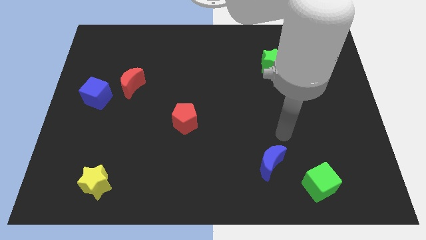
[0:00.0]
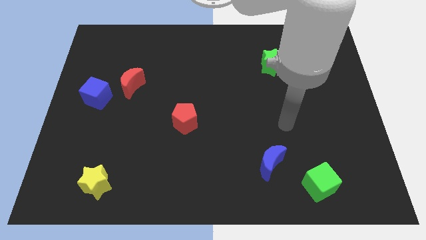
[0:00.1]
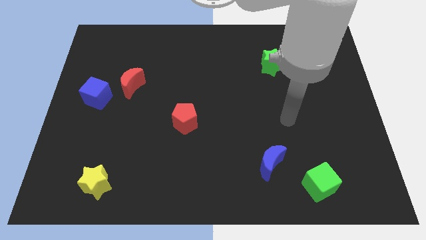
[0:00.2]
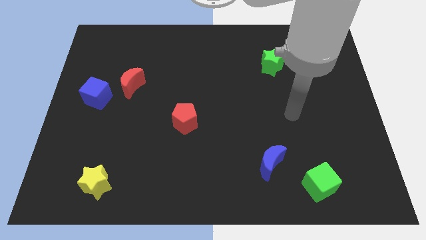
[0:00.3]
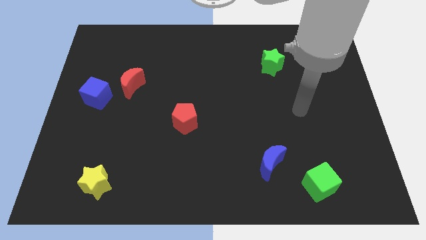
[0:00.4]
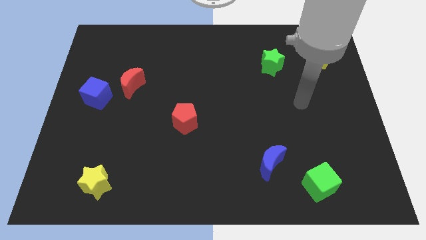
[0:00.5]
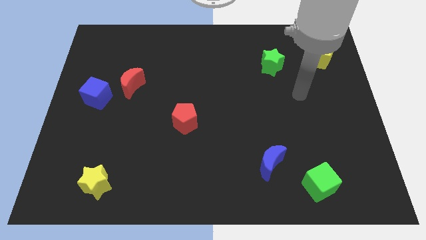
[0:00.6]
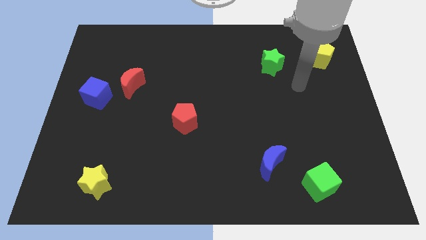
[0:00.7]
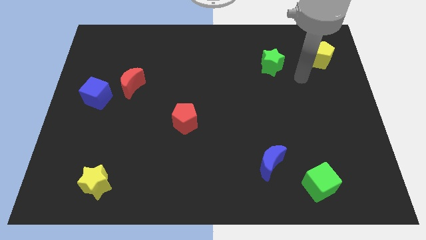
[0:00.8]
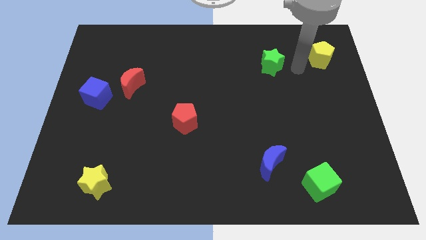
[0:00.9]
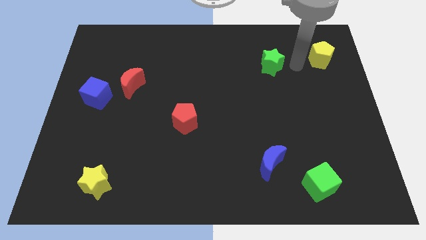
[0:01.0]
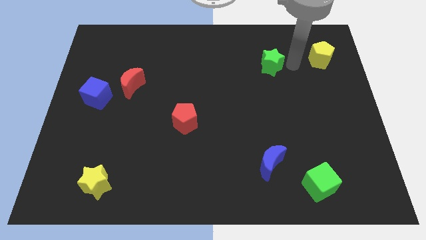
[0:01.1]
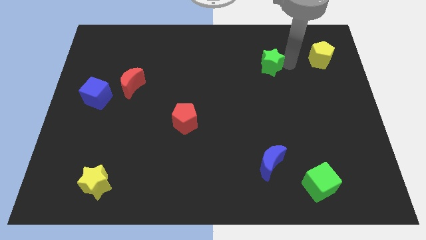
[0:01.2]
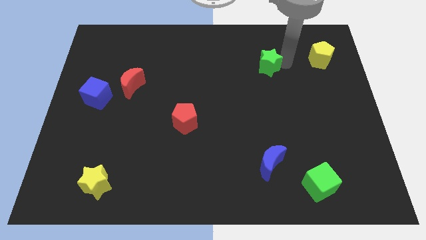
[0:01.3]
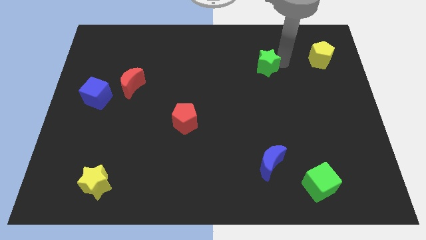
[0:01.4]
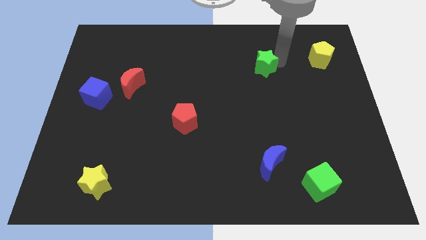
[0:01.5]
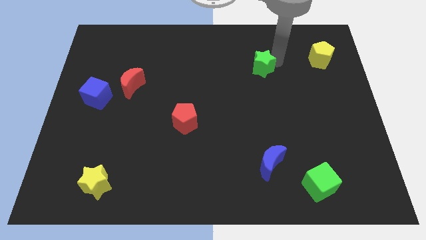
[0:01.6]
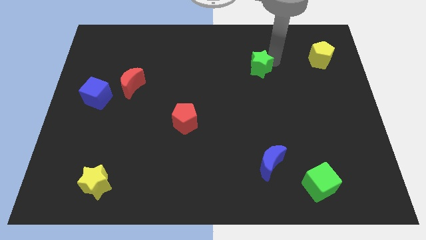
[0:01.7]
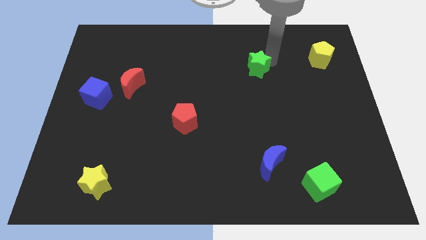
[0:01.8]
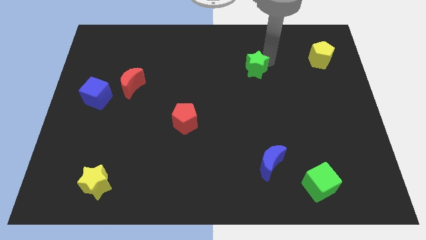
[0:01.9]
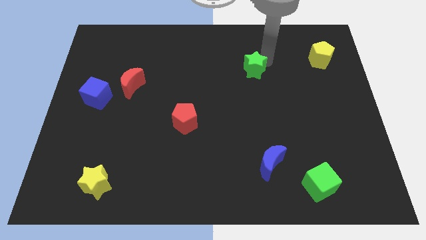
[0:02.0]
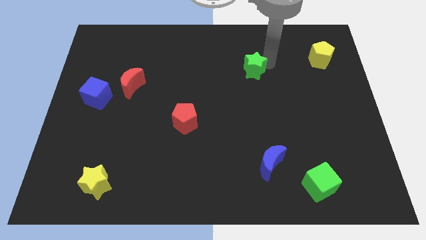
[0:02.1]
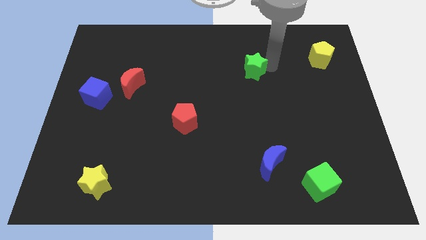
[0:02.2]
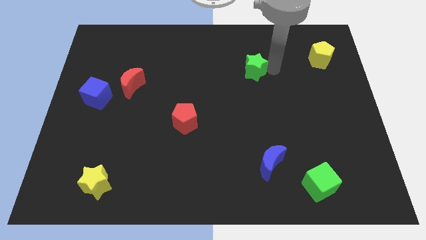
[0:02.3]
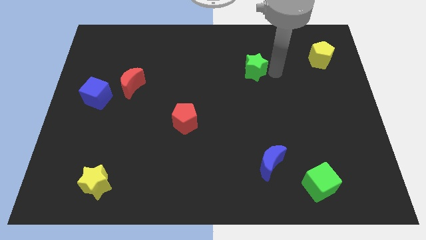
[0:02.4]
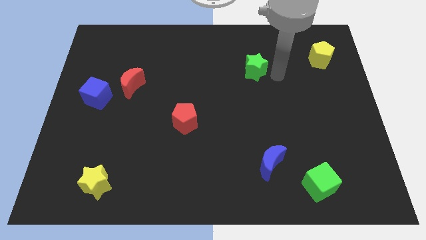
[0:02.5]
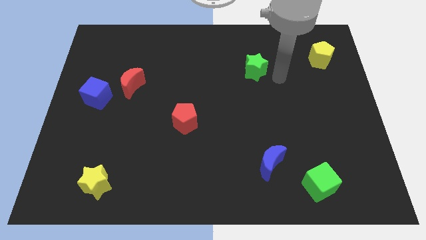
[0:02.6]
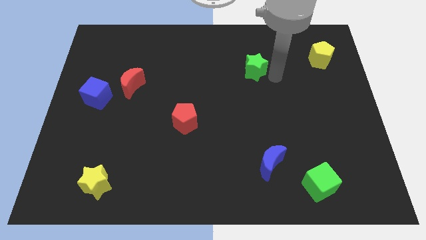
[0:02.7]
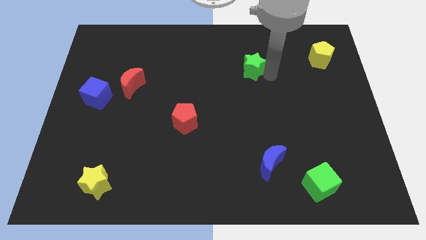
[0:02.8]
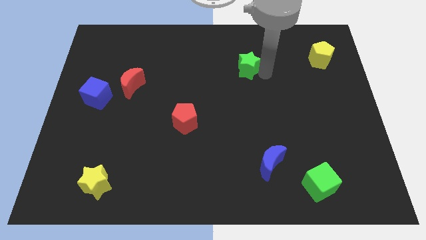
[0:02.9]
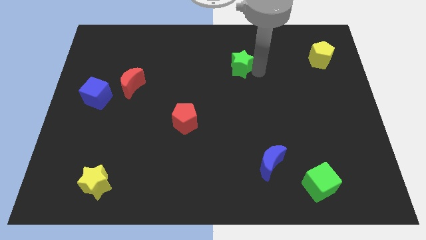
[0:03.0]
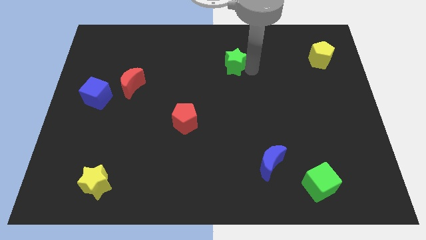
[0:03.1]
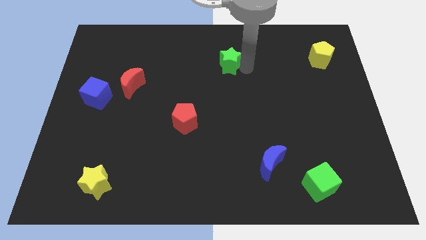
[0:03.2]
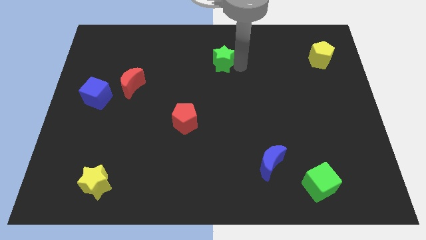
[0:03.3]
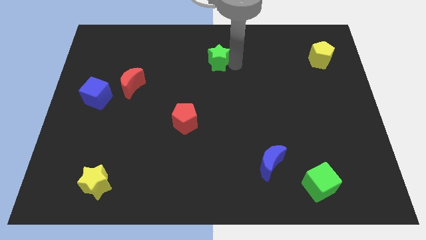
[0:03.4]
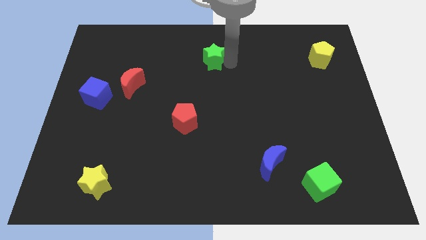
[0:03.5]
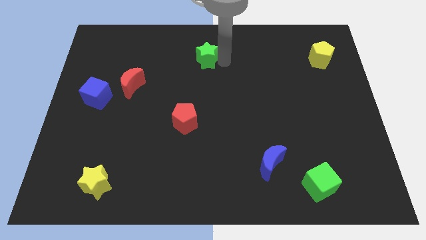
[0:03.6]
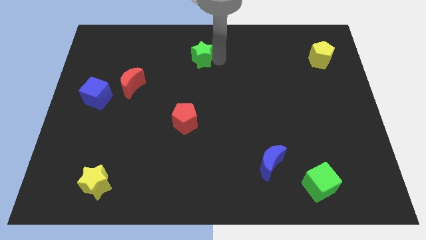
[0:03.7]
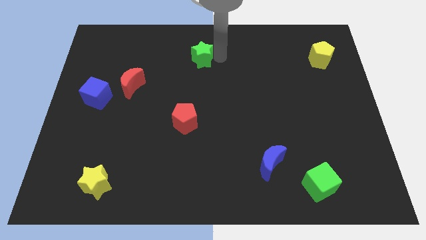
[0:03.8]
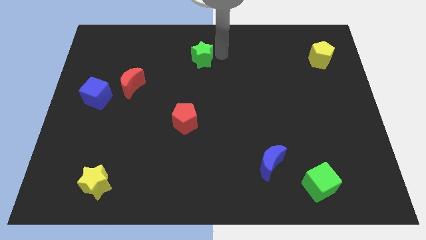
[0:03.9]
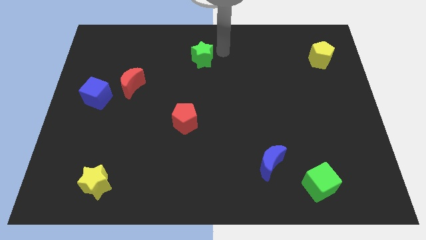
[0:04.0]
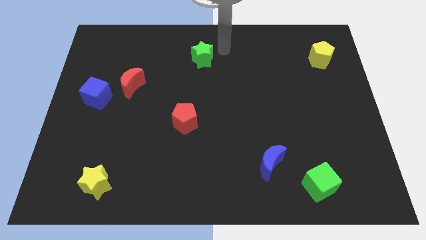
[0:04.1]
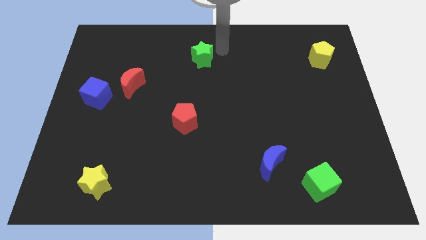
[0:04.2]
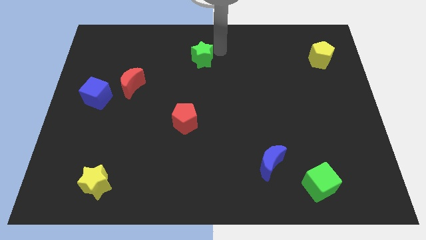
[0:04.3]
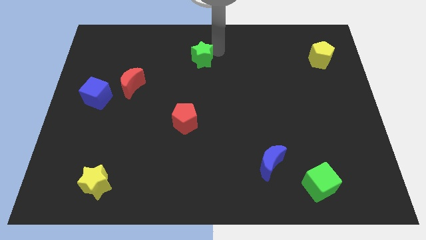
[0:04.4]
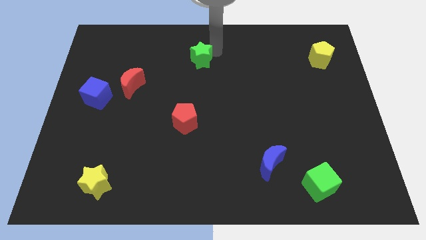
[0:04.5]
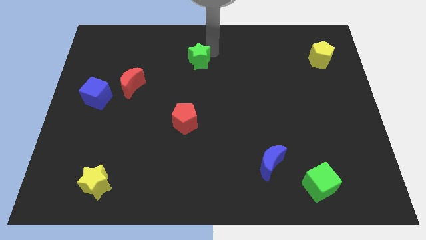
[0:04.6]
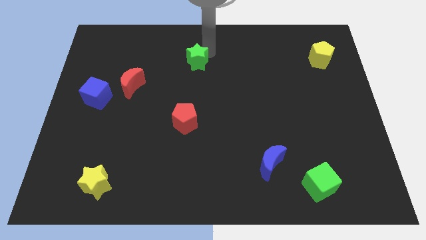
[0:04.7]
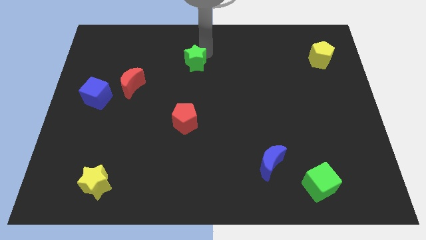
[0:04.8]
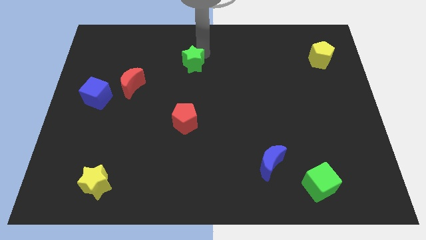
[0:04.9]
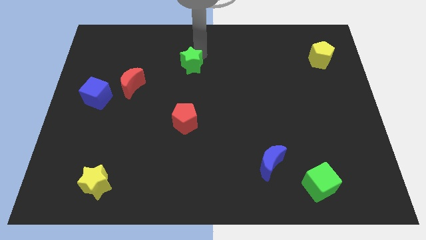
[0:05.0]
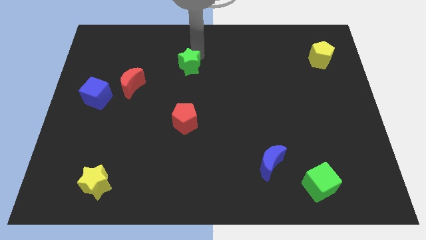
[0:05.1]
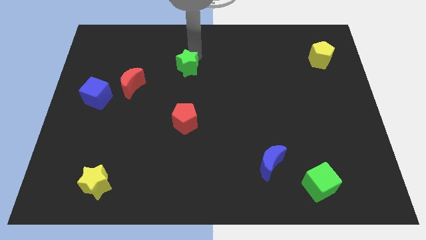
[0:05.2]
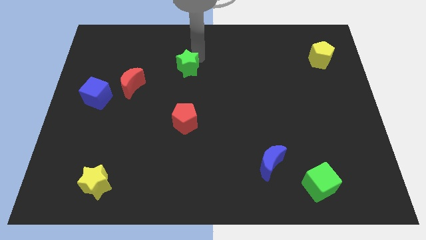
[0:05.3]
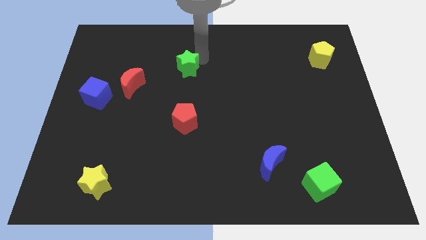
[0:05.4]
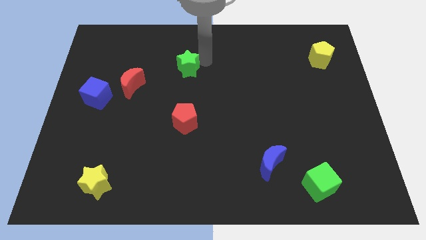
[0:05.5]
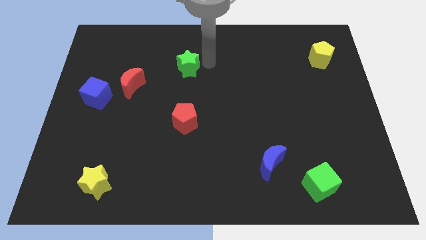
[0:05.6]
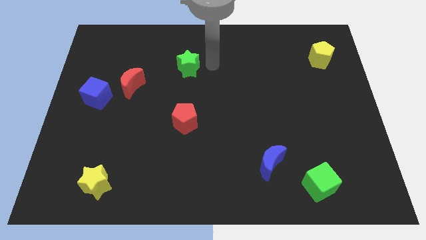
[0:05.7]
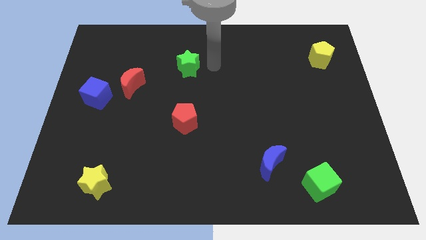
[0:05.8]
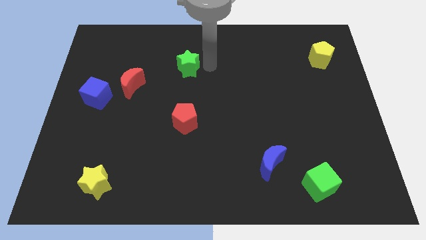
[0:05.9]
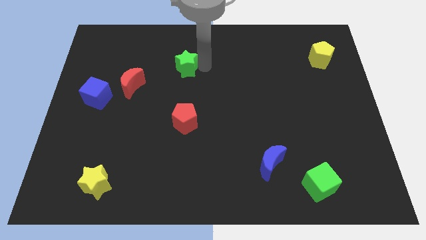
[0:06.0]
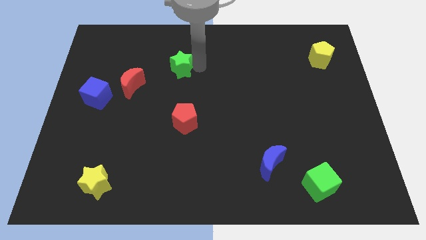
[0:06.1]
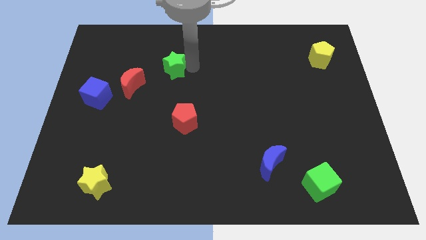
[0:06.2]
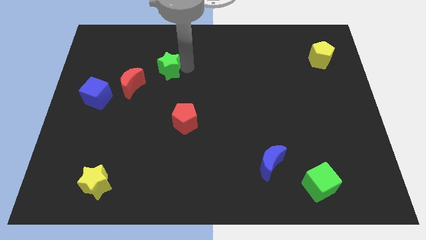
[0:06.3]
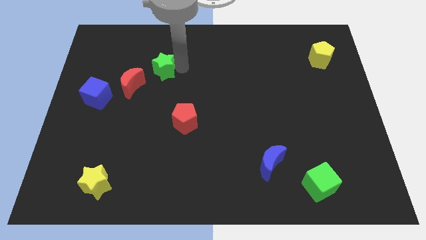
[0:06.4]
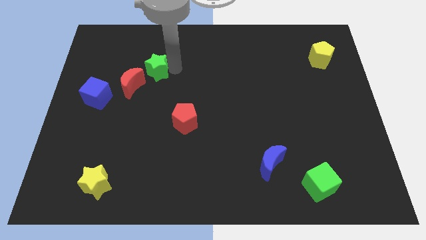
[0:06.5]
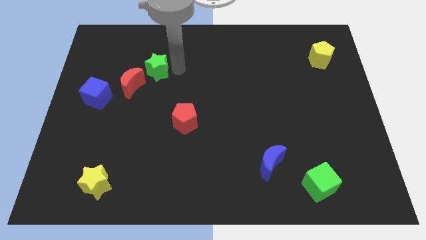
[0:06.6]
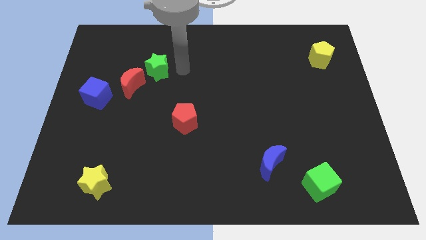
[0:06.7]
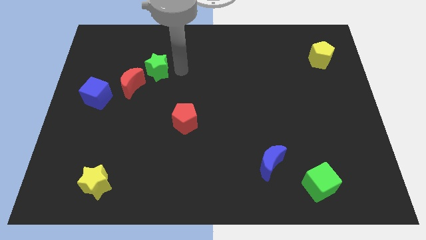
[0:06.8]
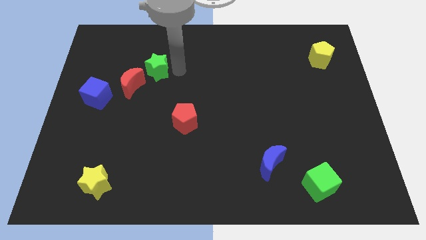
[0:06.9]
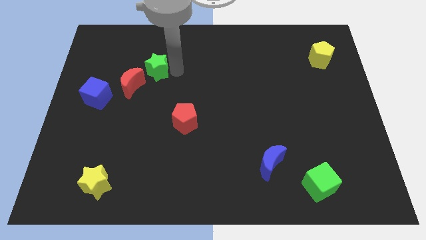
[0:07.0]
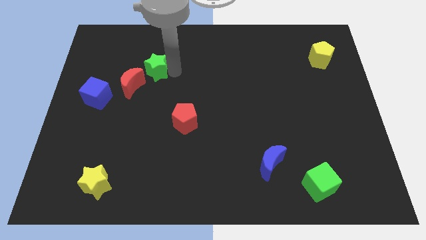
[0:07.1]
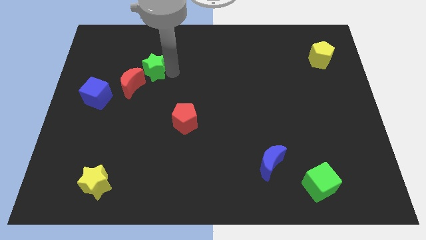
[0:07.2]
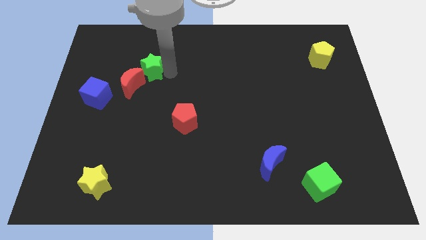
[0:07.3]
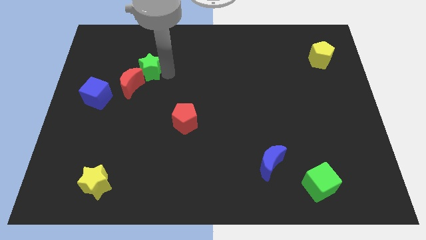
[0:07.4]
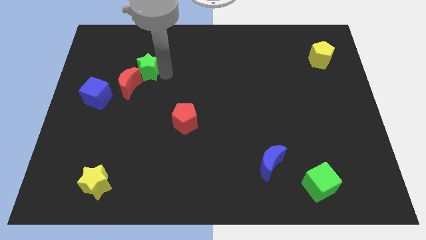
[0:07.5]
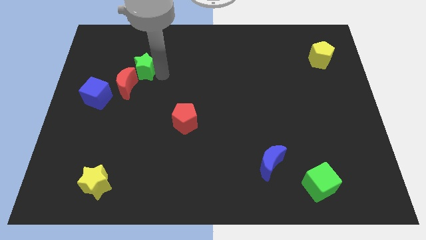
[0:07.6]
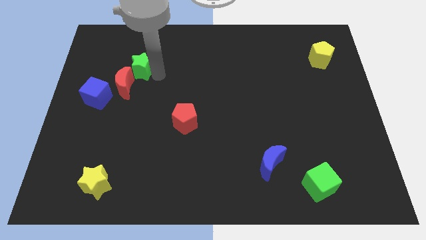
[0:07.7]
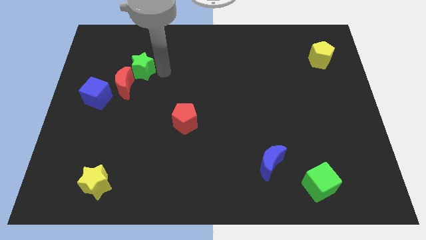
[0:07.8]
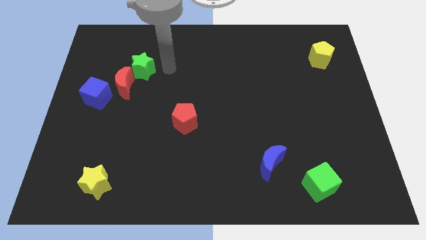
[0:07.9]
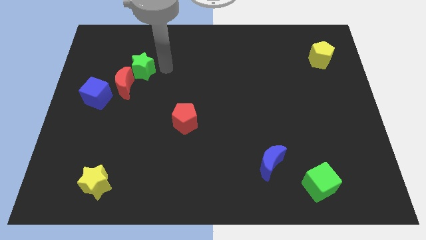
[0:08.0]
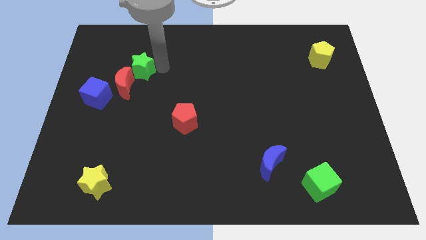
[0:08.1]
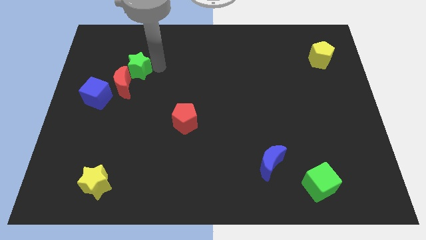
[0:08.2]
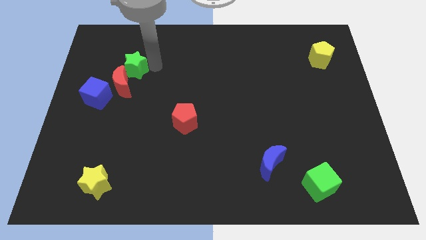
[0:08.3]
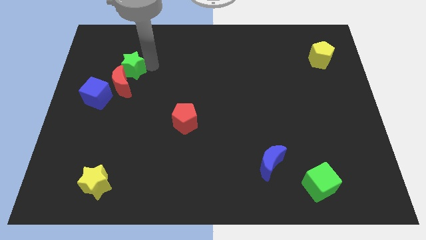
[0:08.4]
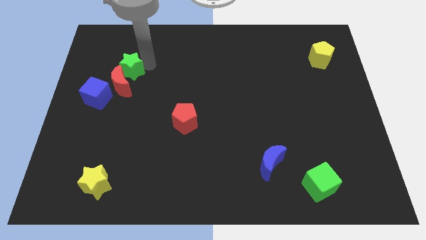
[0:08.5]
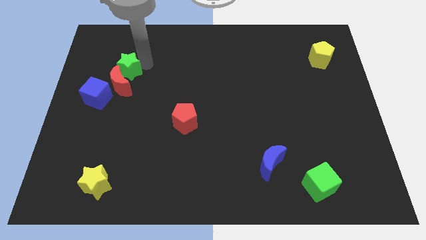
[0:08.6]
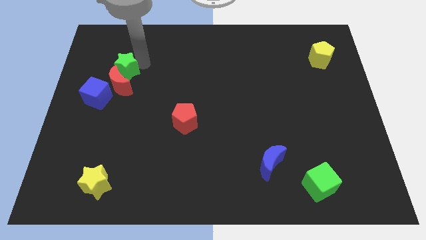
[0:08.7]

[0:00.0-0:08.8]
put the green star to the top left side of the red moon
